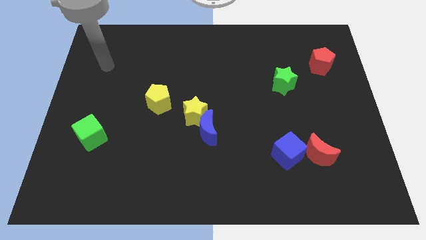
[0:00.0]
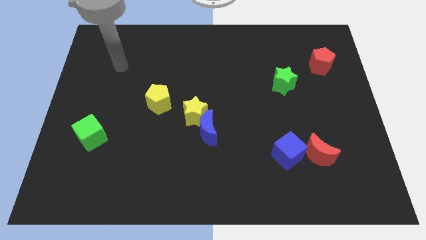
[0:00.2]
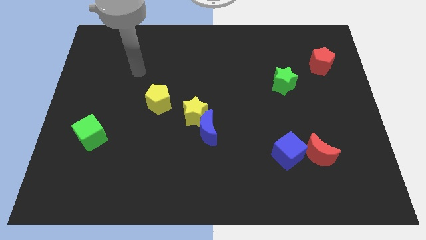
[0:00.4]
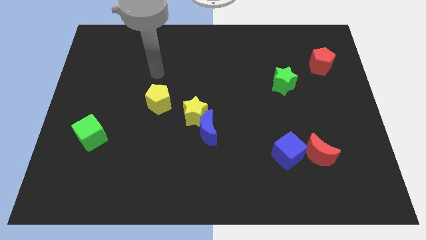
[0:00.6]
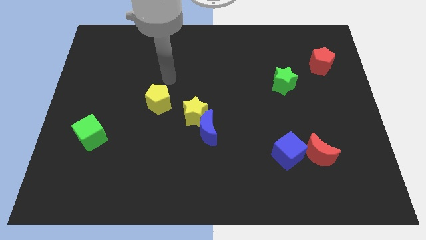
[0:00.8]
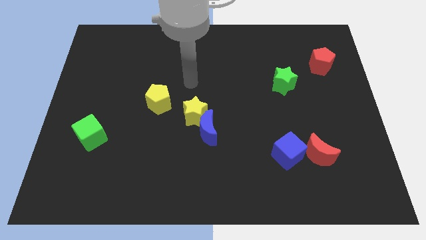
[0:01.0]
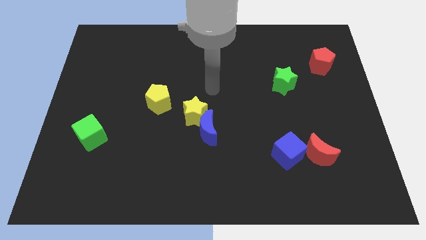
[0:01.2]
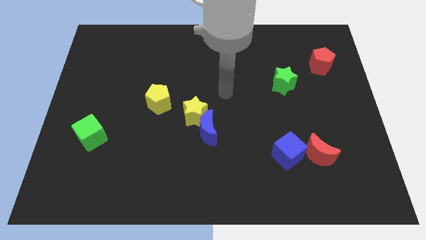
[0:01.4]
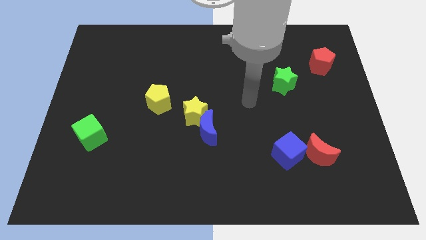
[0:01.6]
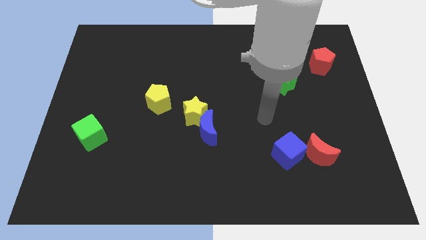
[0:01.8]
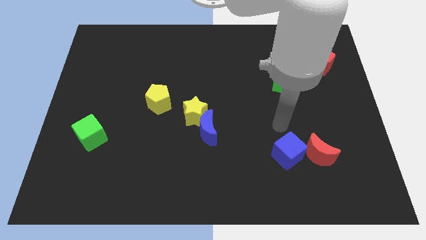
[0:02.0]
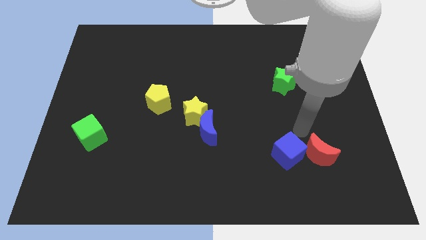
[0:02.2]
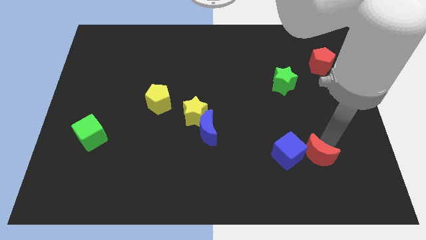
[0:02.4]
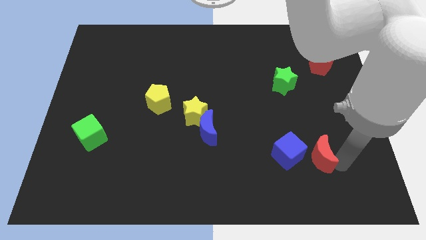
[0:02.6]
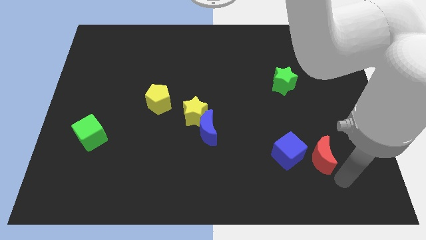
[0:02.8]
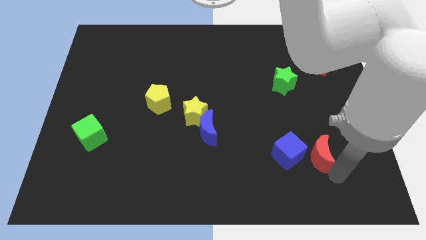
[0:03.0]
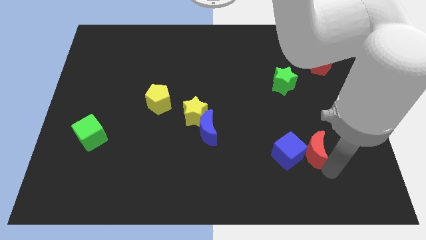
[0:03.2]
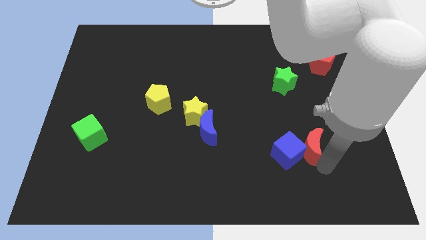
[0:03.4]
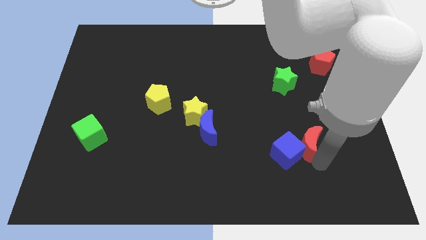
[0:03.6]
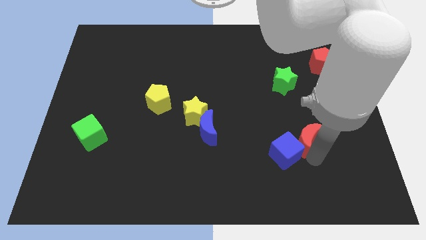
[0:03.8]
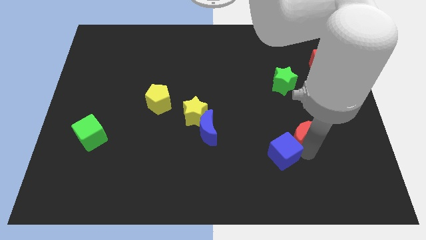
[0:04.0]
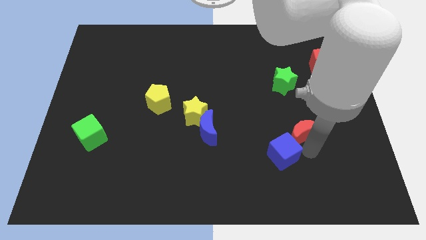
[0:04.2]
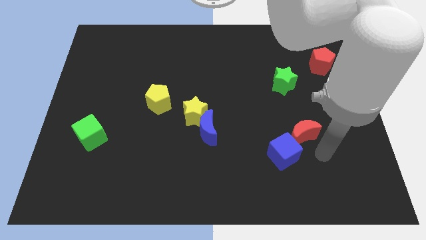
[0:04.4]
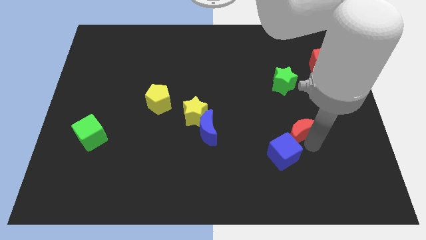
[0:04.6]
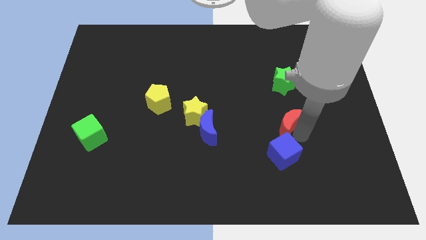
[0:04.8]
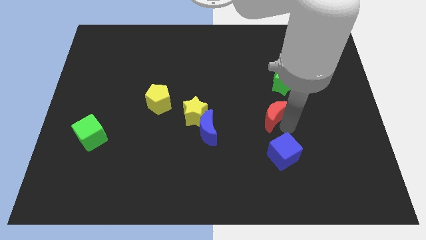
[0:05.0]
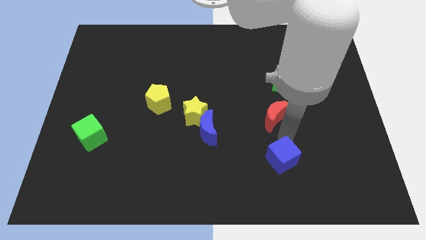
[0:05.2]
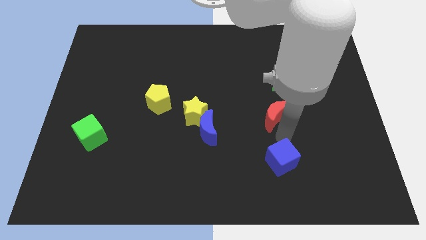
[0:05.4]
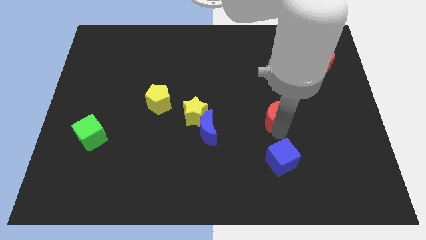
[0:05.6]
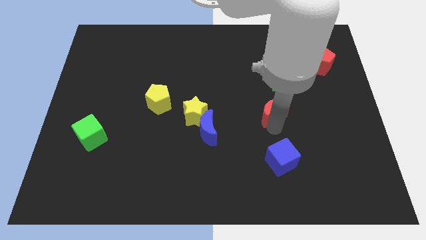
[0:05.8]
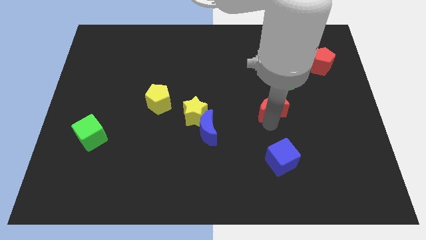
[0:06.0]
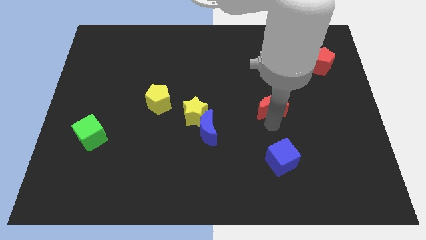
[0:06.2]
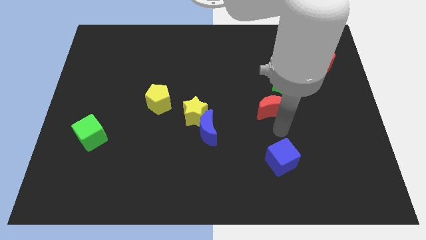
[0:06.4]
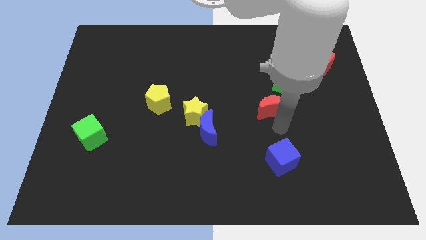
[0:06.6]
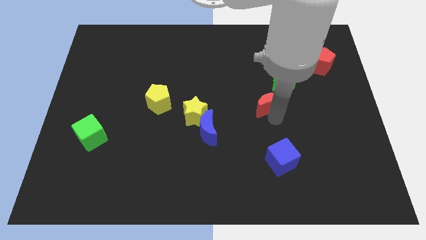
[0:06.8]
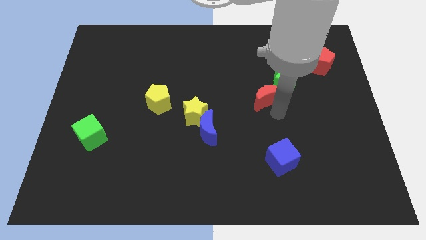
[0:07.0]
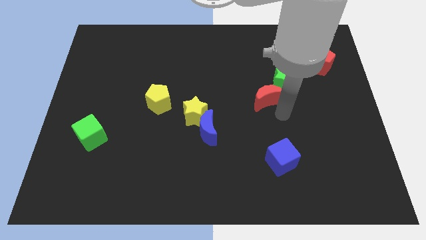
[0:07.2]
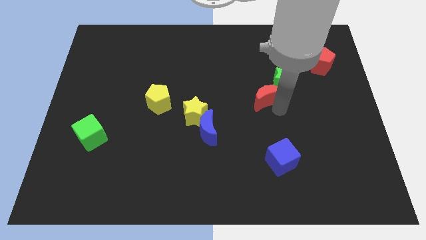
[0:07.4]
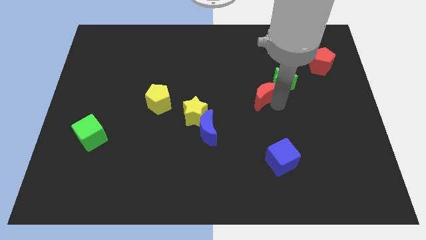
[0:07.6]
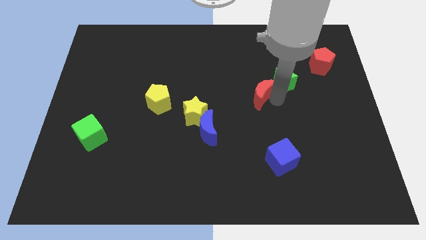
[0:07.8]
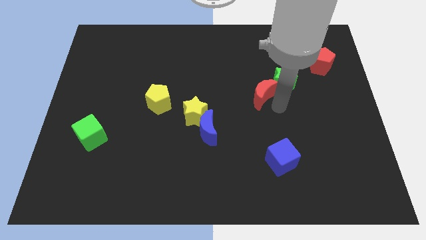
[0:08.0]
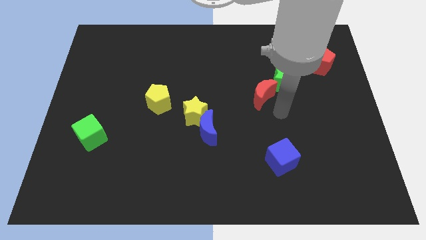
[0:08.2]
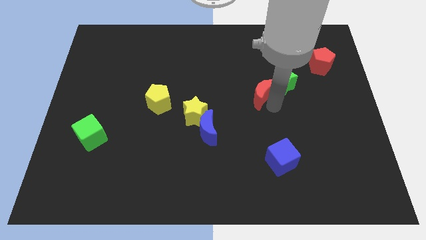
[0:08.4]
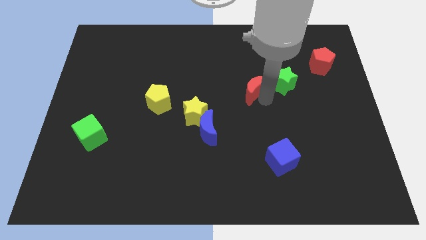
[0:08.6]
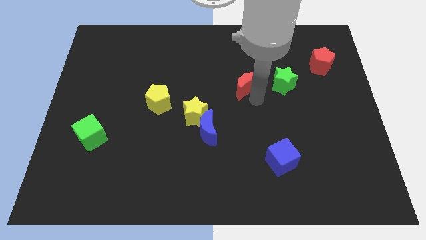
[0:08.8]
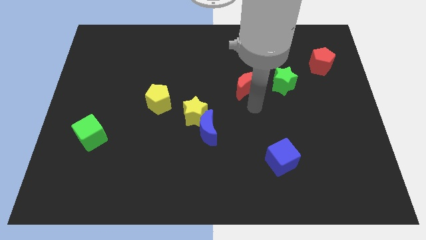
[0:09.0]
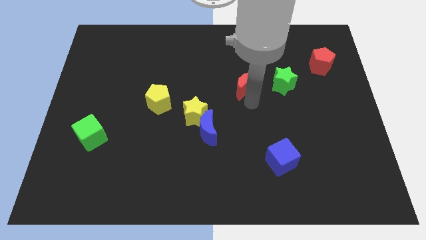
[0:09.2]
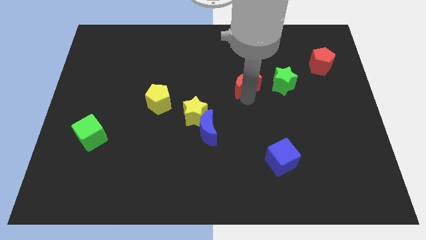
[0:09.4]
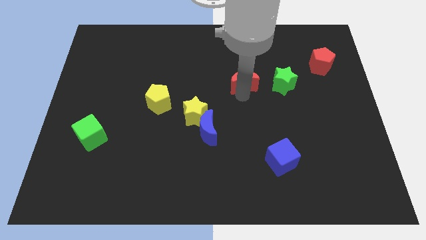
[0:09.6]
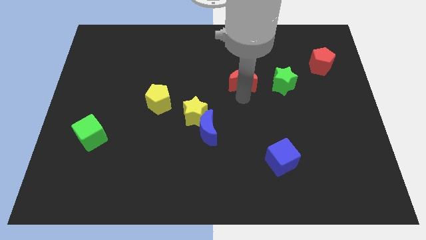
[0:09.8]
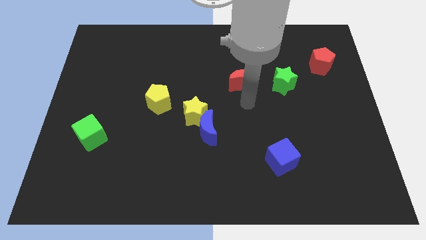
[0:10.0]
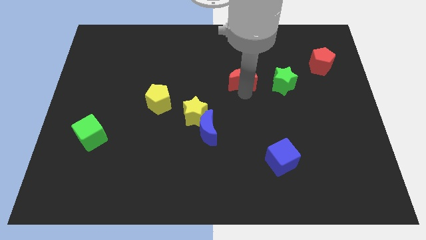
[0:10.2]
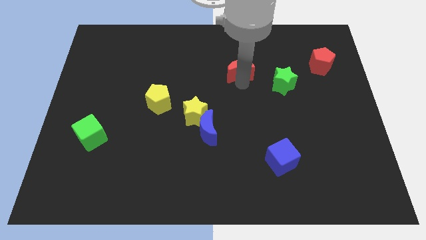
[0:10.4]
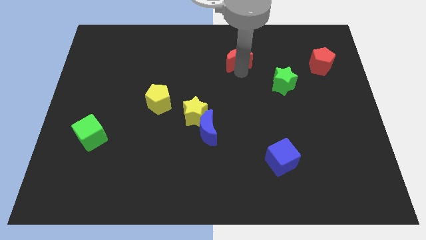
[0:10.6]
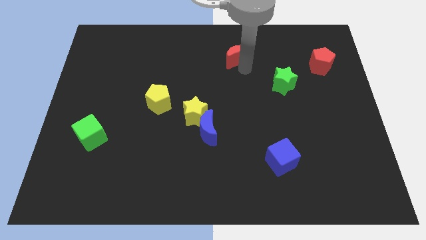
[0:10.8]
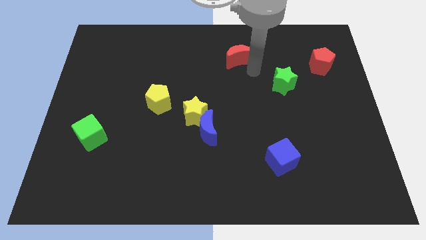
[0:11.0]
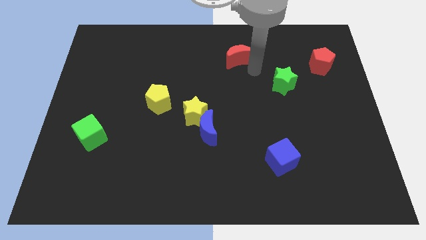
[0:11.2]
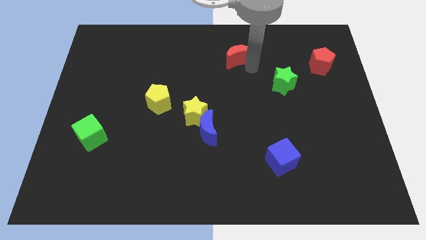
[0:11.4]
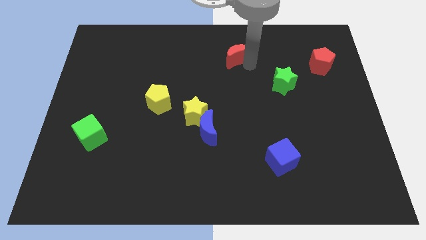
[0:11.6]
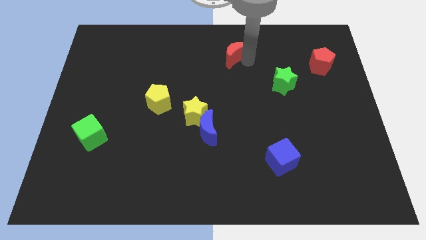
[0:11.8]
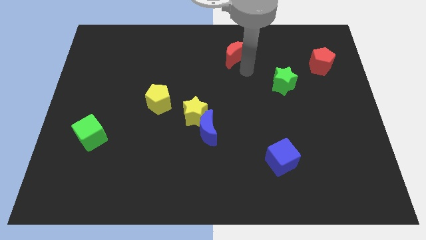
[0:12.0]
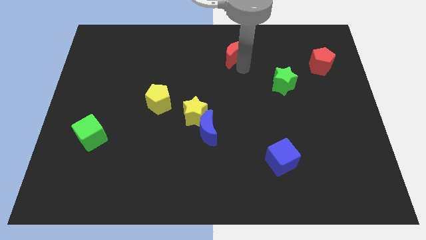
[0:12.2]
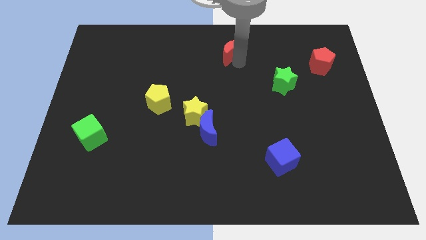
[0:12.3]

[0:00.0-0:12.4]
move the red moon to the top side
